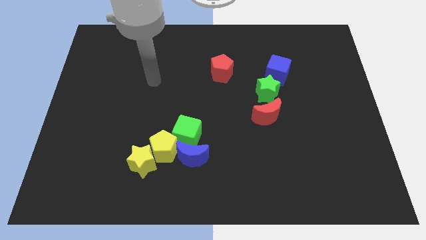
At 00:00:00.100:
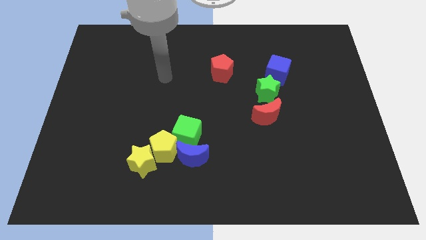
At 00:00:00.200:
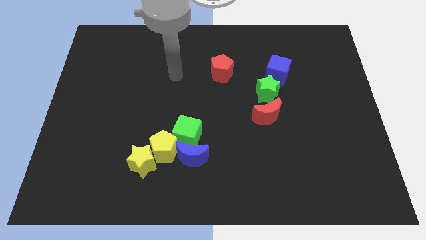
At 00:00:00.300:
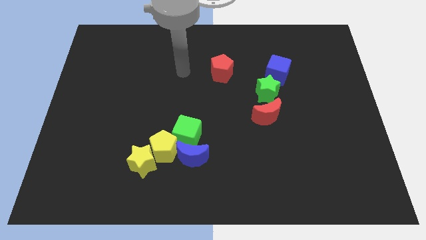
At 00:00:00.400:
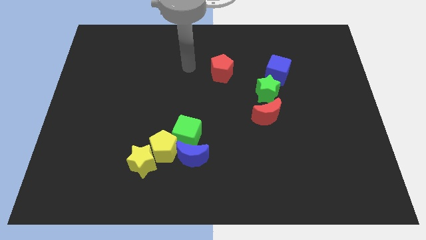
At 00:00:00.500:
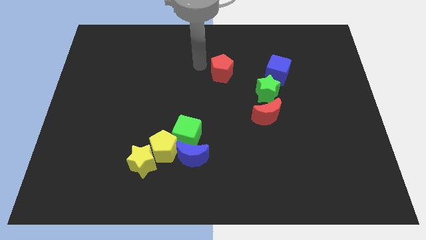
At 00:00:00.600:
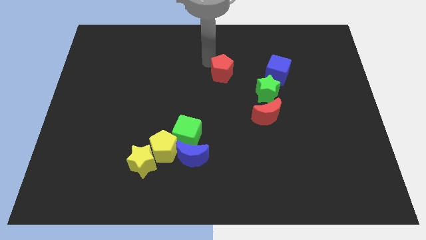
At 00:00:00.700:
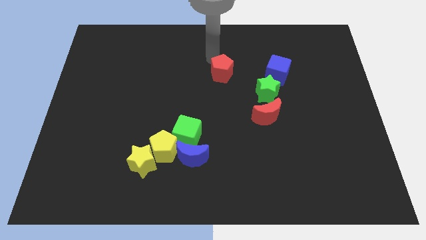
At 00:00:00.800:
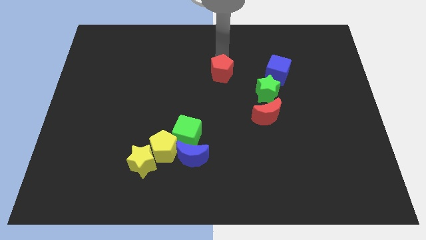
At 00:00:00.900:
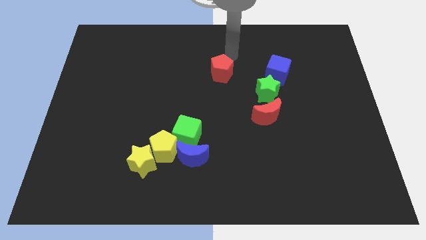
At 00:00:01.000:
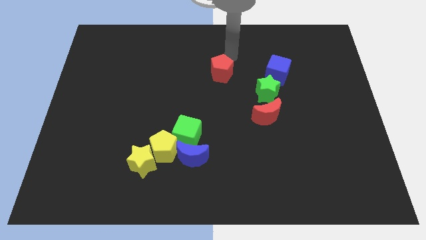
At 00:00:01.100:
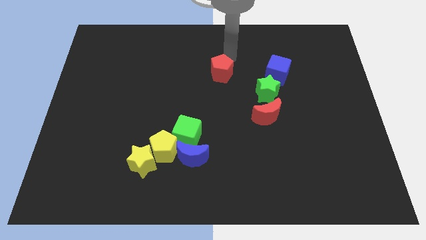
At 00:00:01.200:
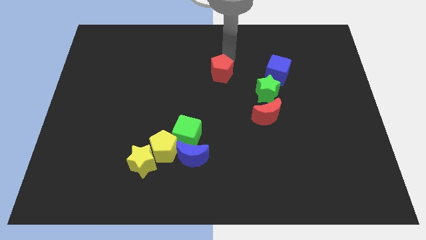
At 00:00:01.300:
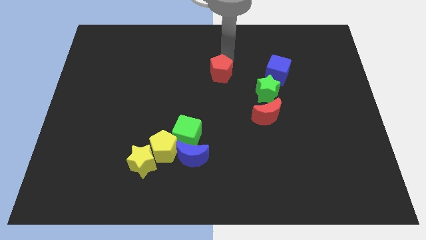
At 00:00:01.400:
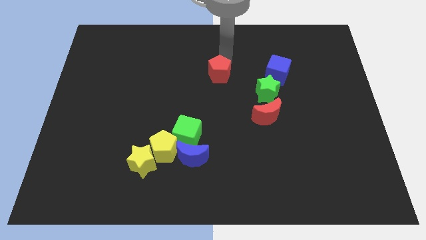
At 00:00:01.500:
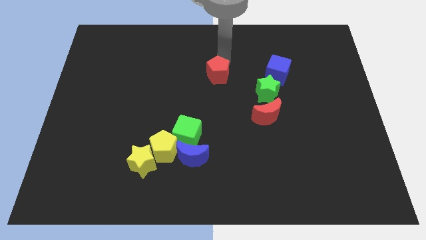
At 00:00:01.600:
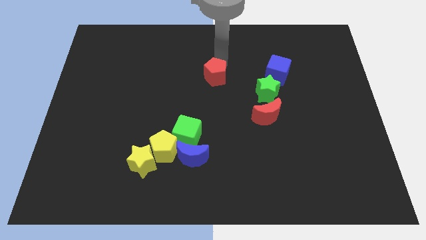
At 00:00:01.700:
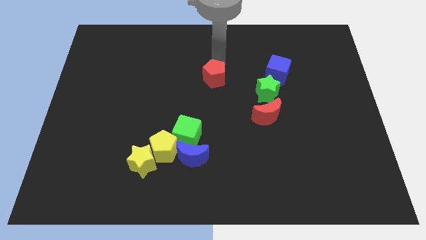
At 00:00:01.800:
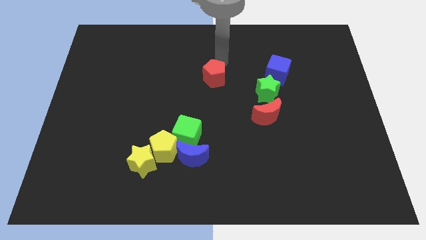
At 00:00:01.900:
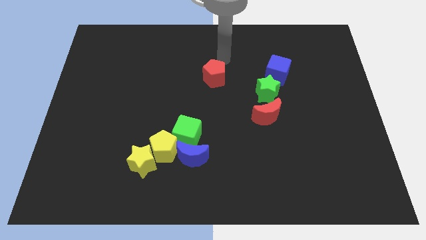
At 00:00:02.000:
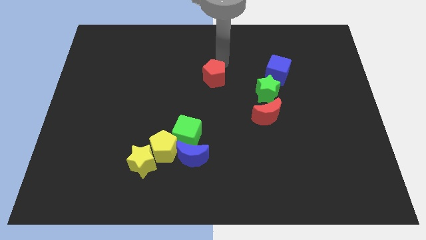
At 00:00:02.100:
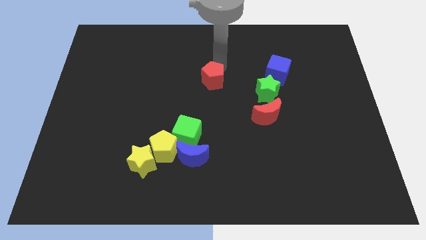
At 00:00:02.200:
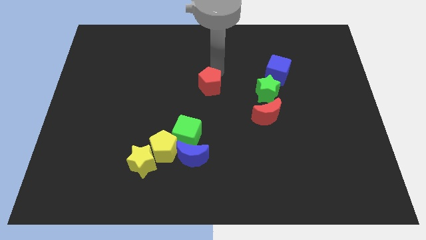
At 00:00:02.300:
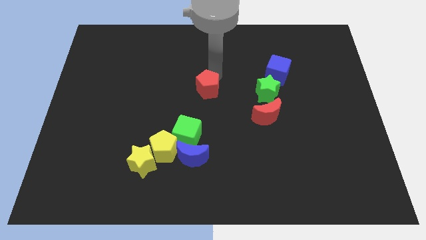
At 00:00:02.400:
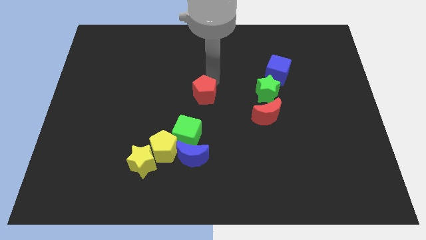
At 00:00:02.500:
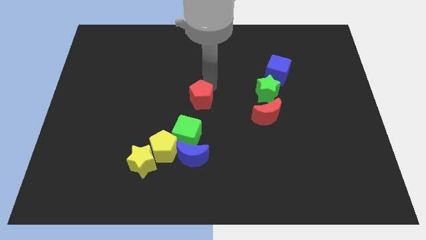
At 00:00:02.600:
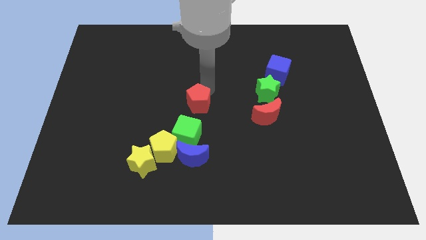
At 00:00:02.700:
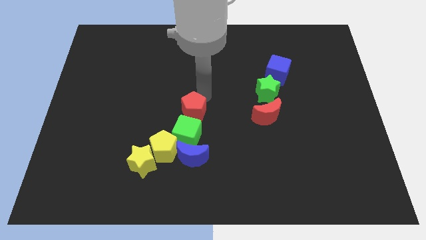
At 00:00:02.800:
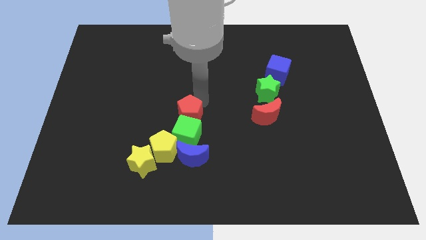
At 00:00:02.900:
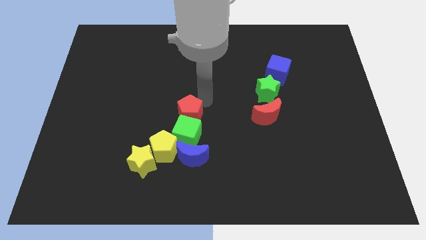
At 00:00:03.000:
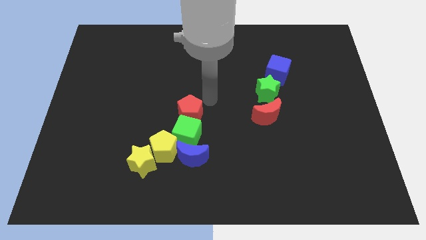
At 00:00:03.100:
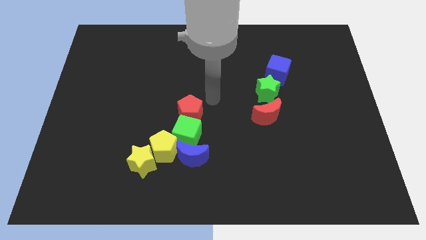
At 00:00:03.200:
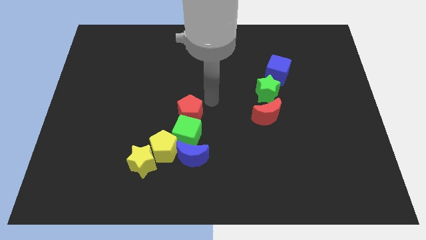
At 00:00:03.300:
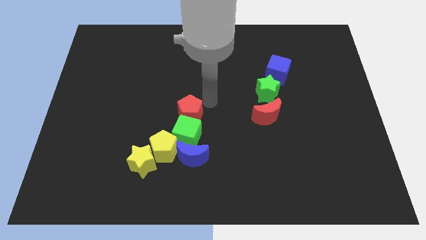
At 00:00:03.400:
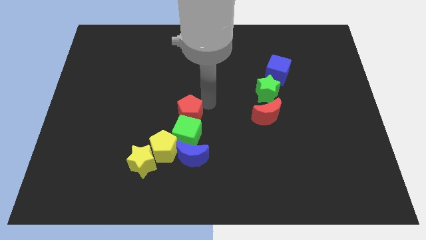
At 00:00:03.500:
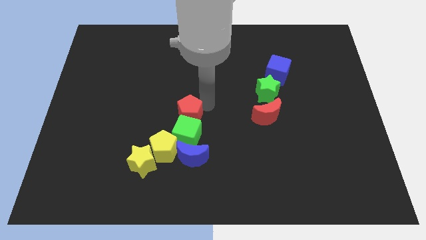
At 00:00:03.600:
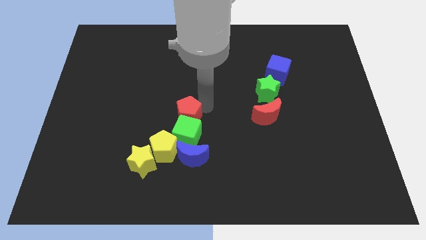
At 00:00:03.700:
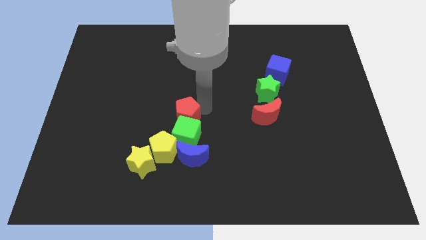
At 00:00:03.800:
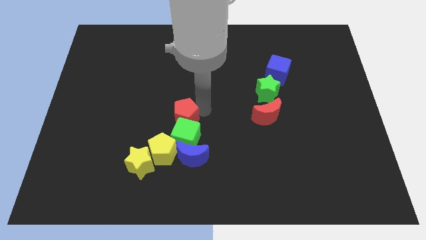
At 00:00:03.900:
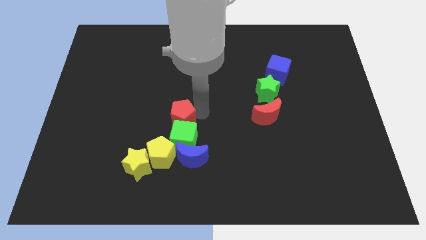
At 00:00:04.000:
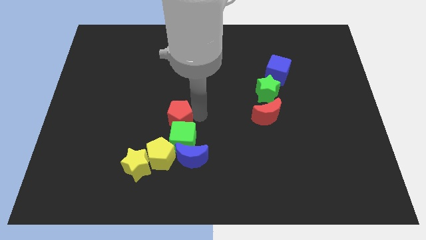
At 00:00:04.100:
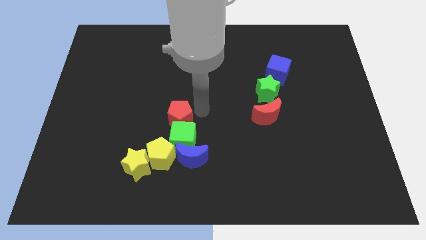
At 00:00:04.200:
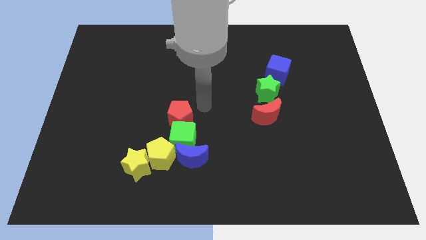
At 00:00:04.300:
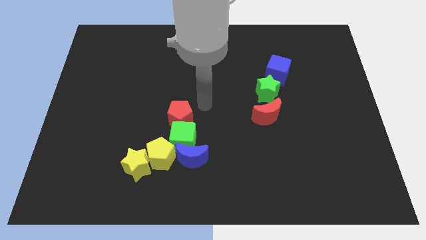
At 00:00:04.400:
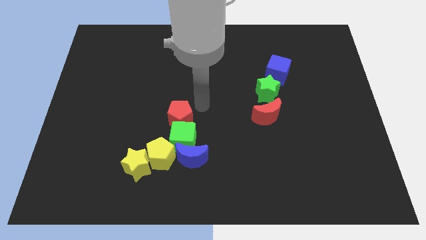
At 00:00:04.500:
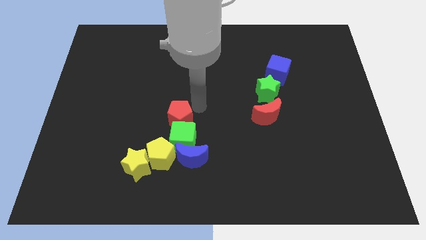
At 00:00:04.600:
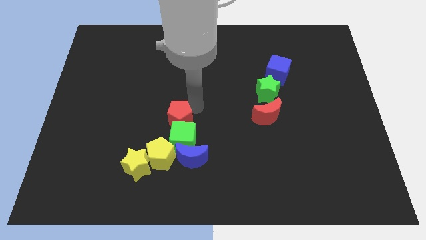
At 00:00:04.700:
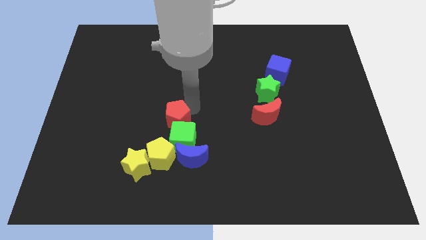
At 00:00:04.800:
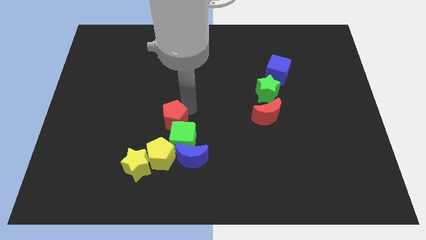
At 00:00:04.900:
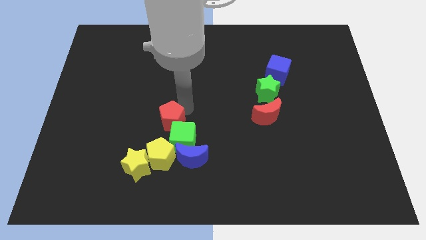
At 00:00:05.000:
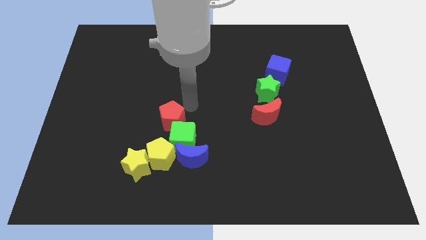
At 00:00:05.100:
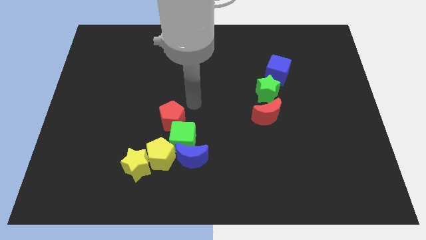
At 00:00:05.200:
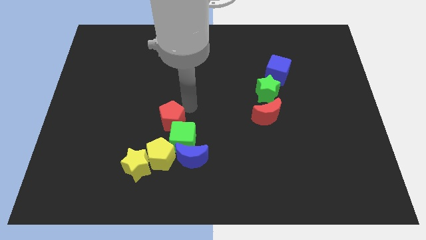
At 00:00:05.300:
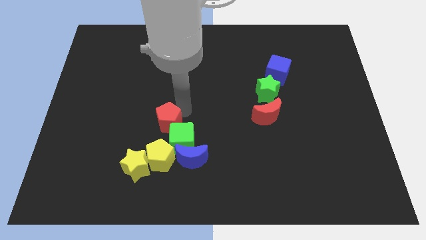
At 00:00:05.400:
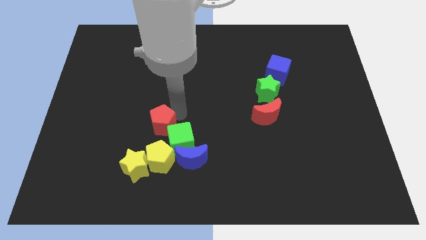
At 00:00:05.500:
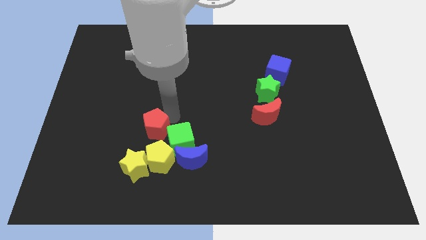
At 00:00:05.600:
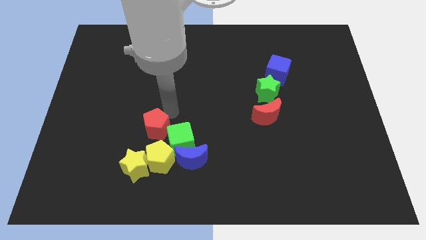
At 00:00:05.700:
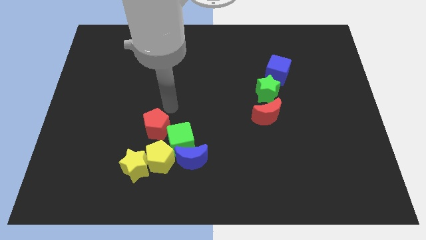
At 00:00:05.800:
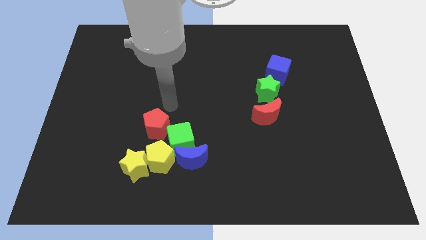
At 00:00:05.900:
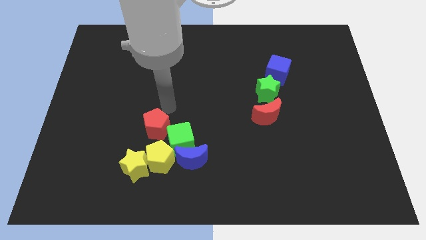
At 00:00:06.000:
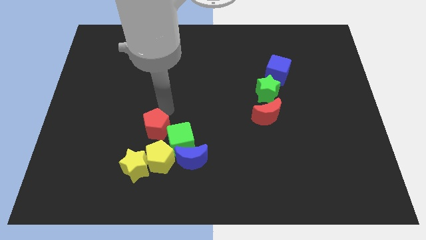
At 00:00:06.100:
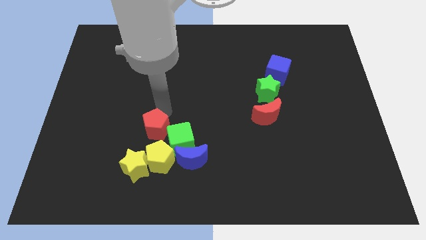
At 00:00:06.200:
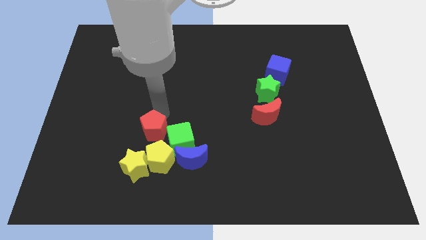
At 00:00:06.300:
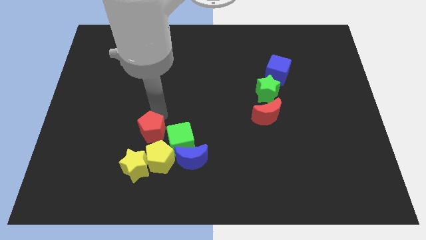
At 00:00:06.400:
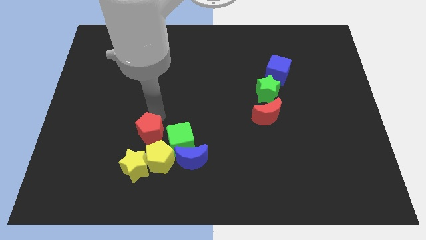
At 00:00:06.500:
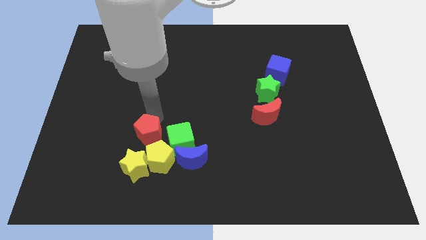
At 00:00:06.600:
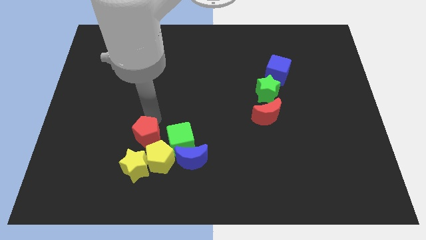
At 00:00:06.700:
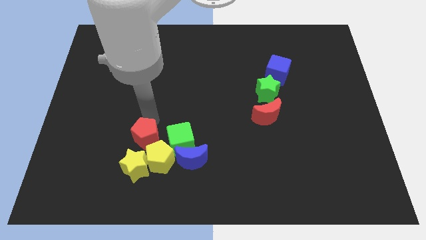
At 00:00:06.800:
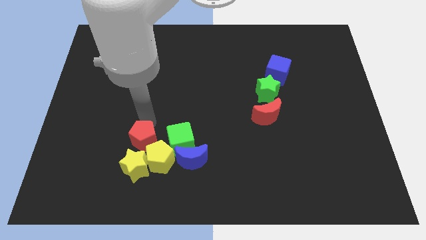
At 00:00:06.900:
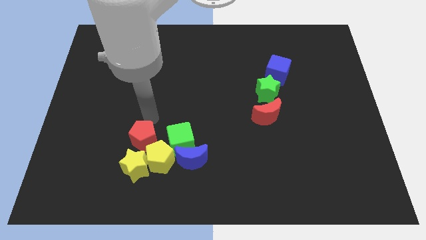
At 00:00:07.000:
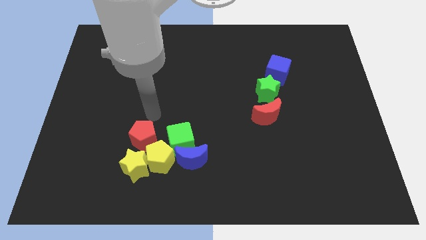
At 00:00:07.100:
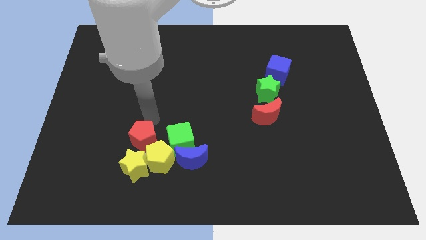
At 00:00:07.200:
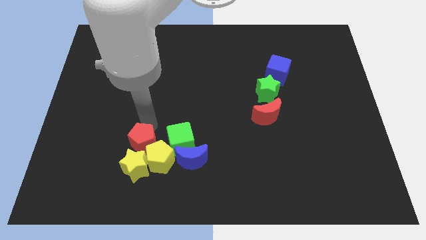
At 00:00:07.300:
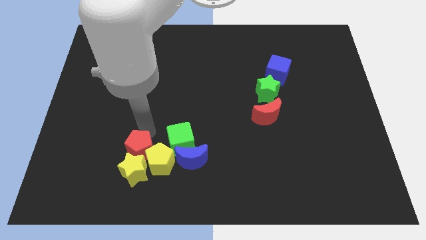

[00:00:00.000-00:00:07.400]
put the red pentagon close to the yellow star
